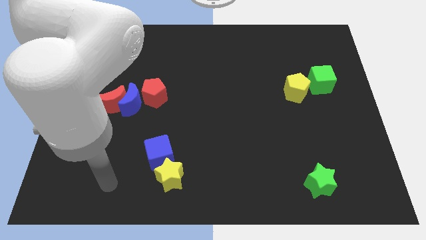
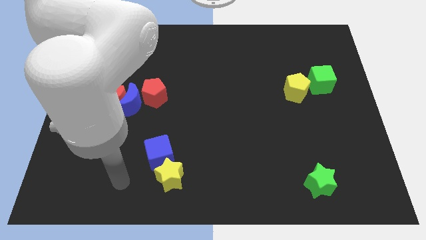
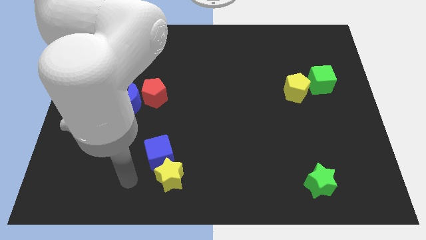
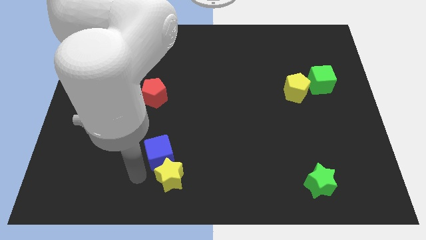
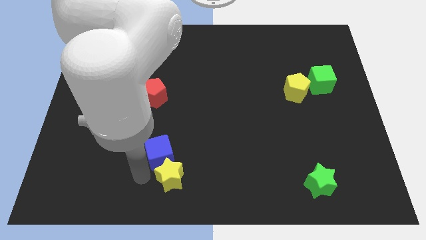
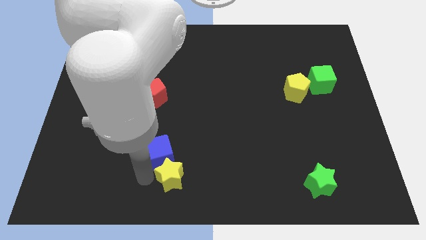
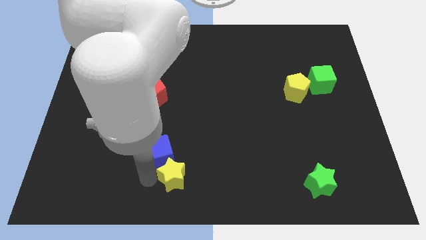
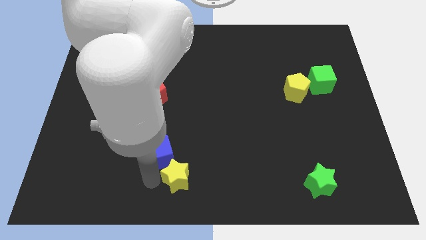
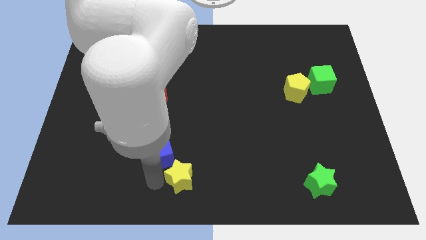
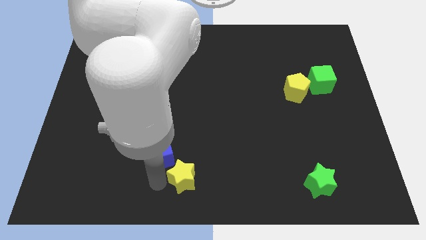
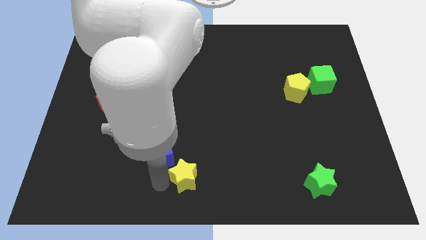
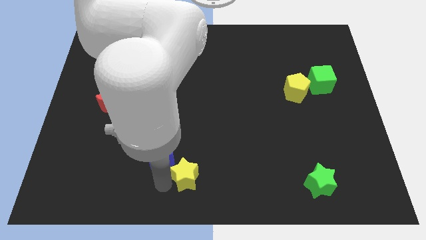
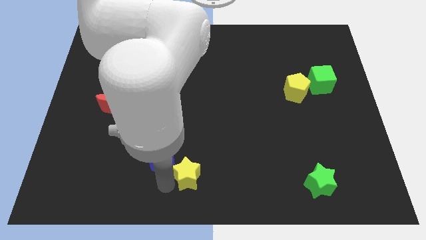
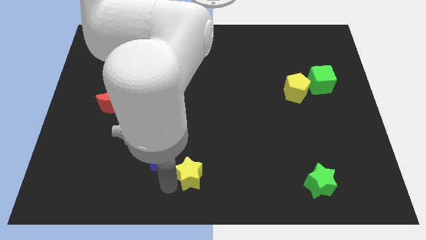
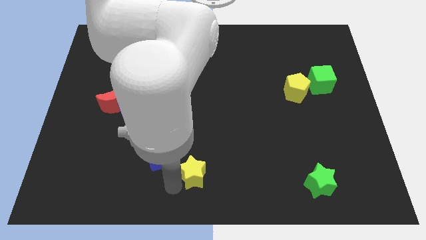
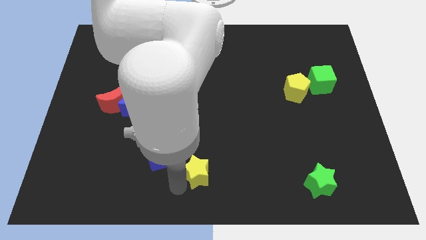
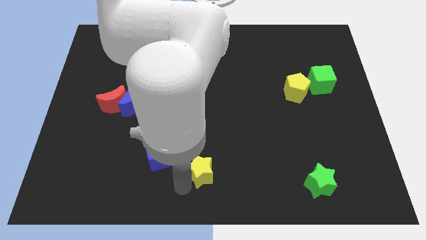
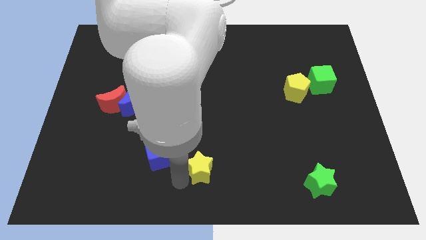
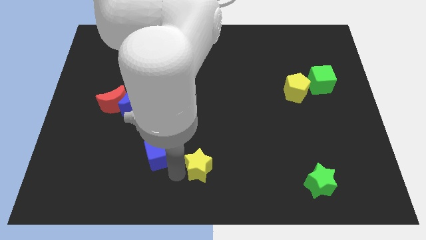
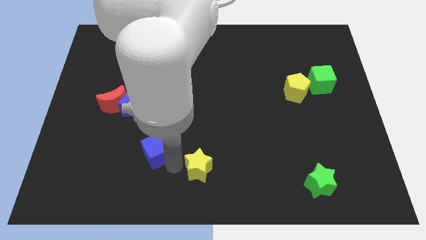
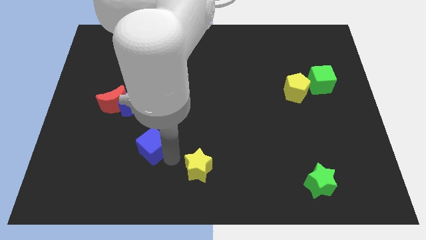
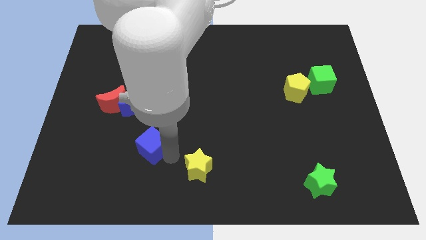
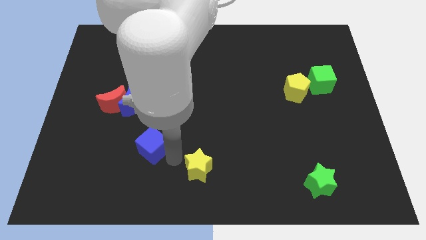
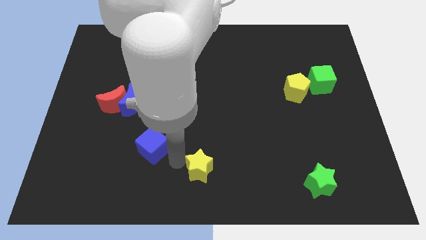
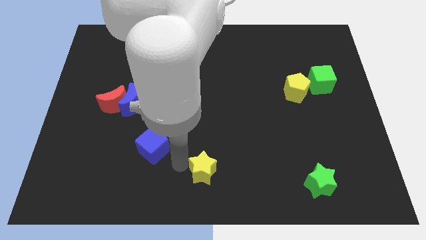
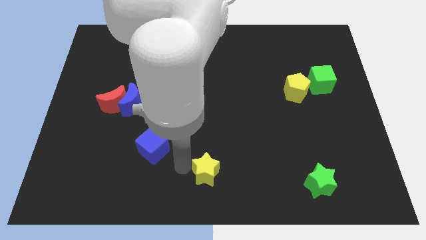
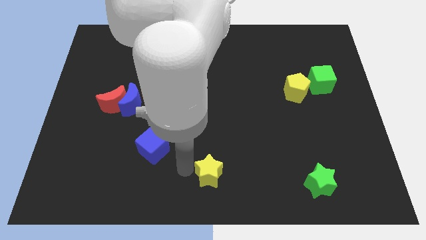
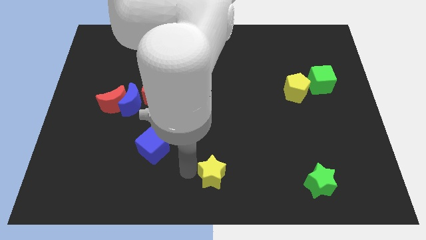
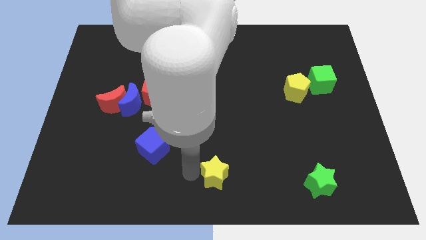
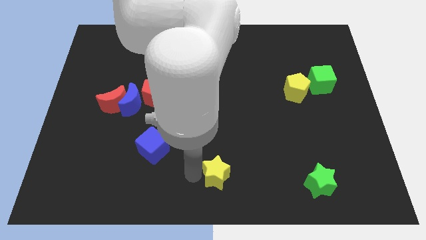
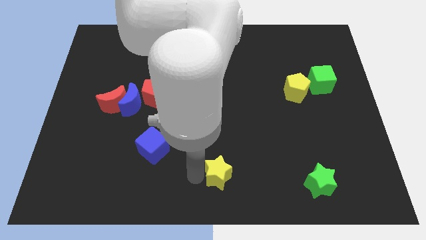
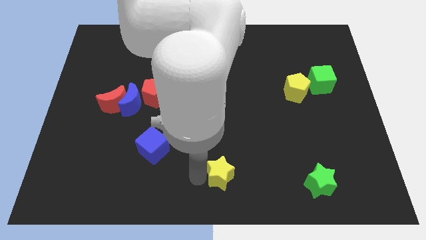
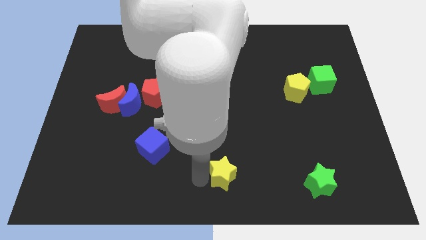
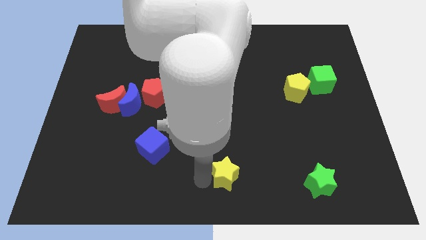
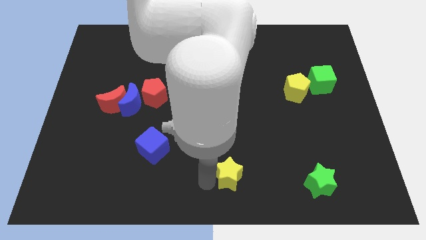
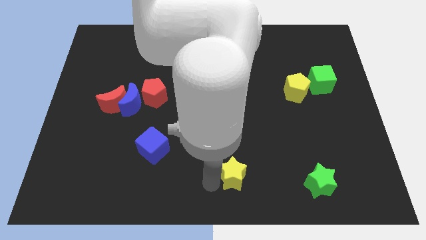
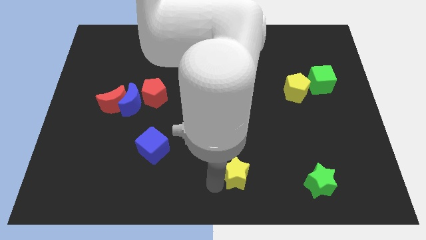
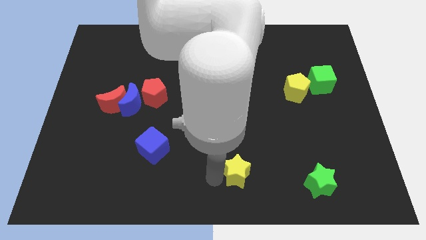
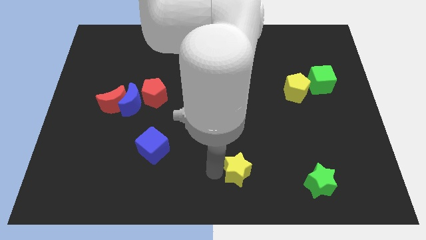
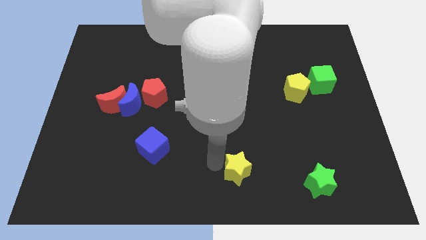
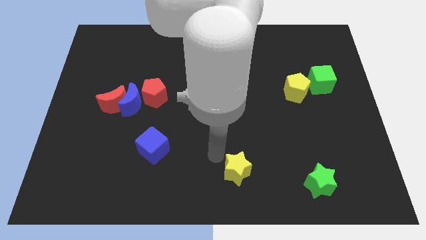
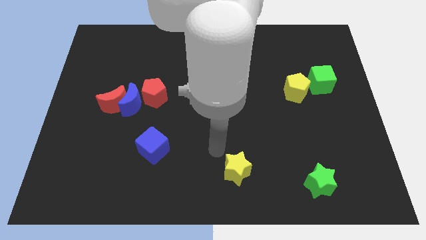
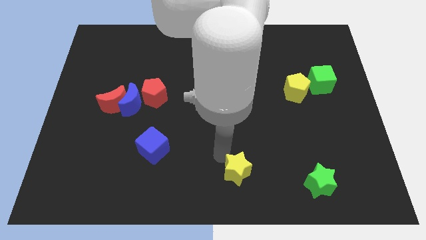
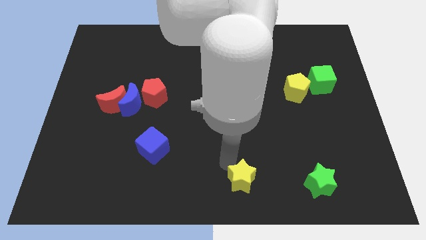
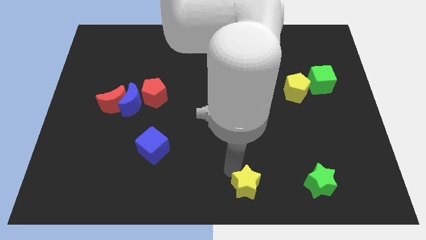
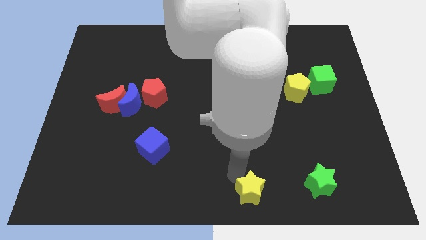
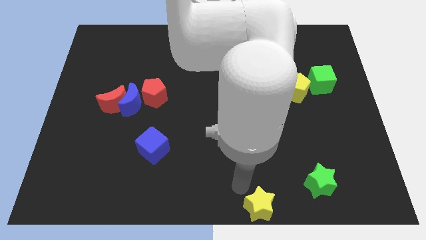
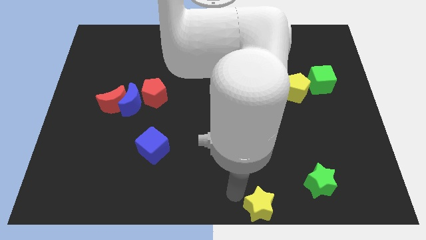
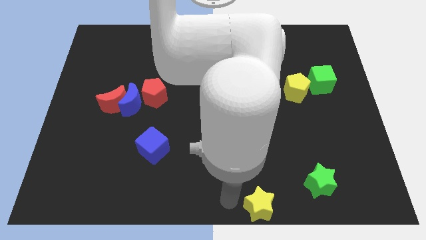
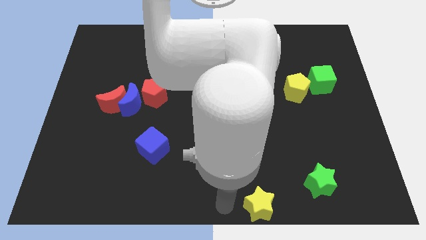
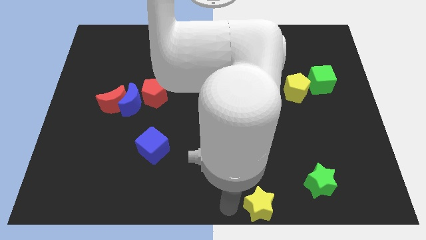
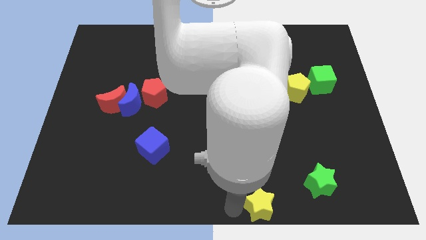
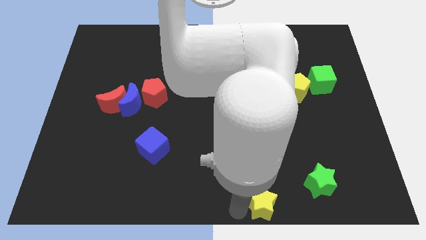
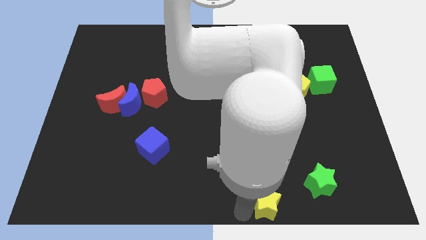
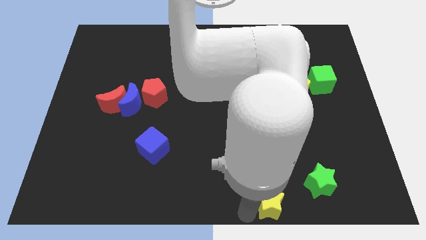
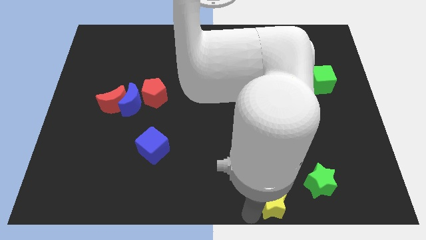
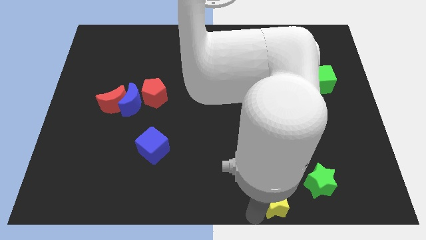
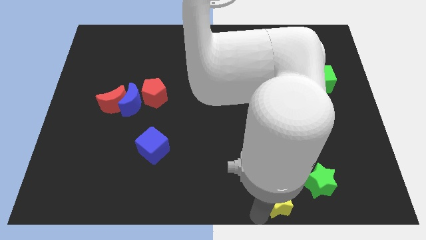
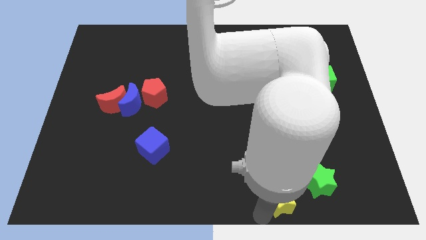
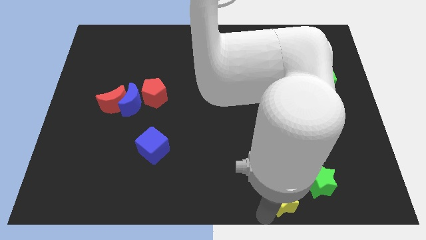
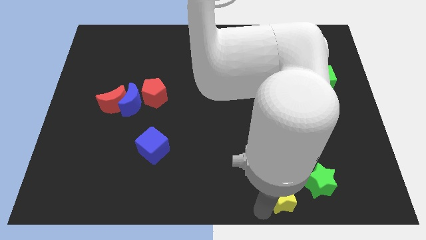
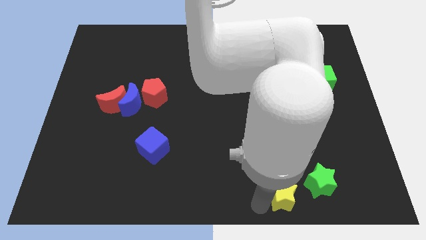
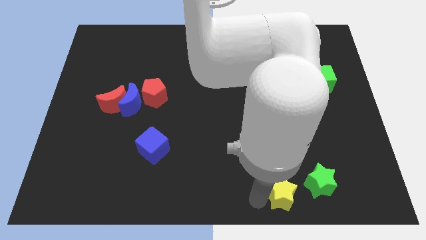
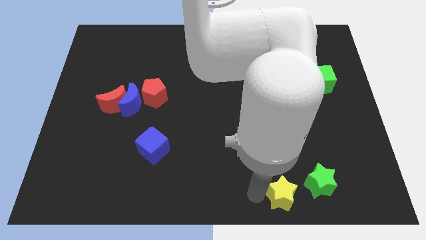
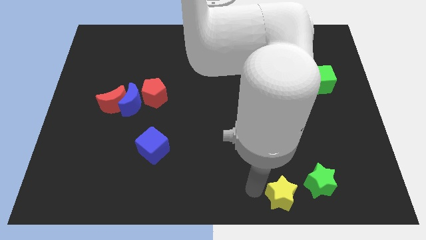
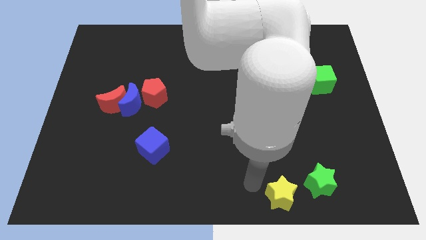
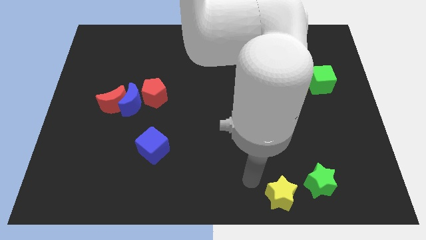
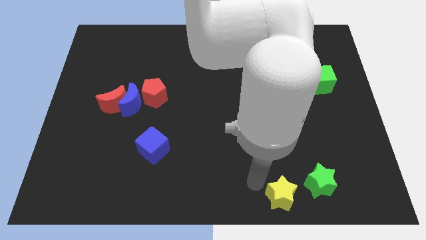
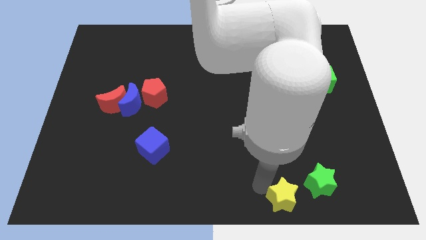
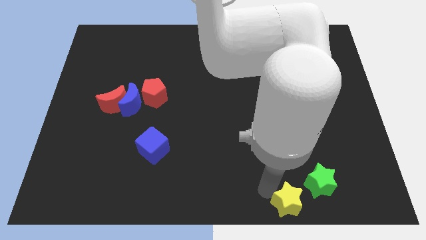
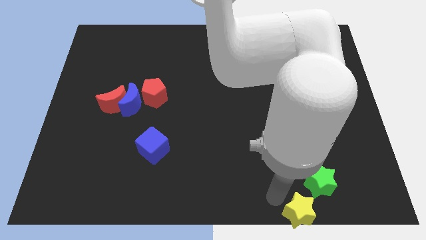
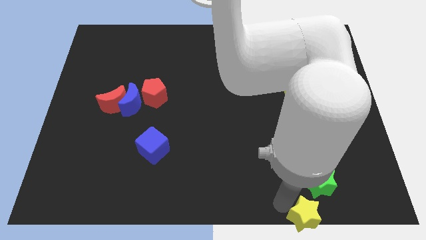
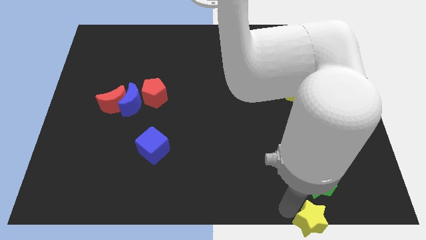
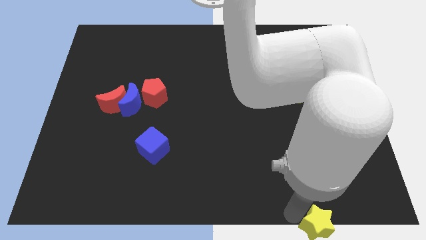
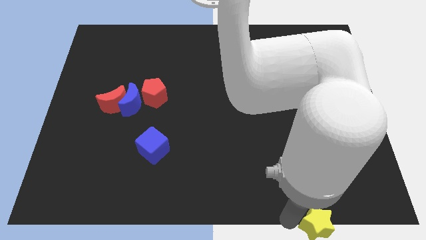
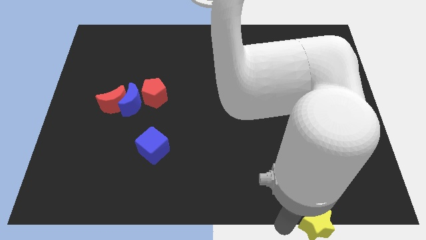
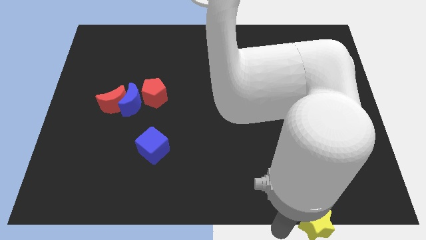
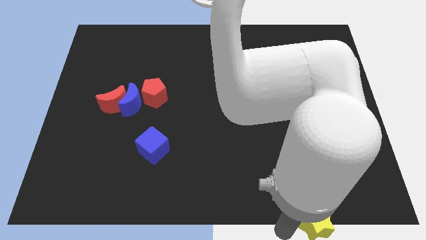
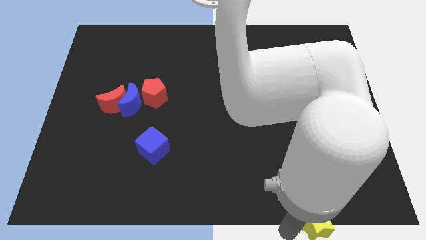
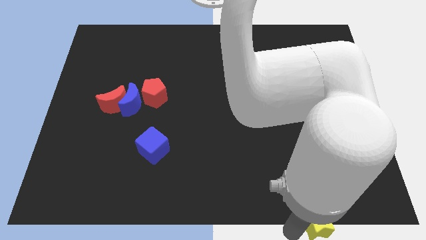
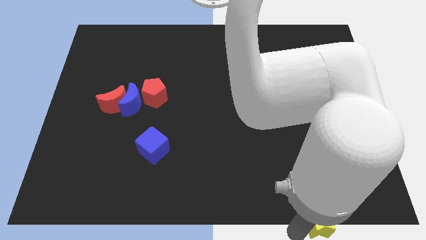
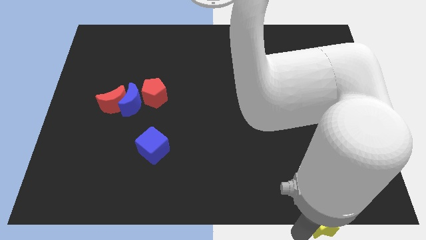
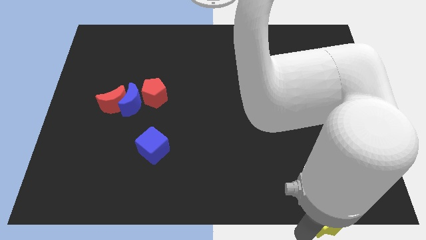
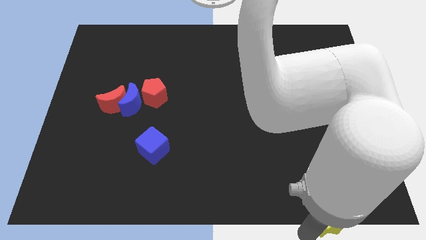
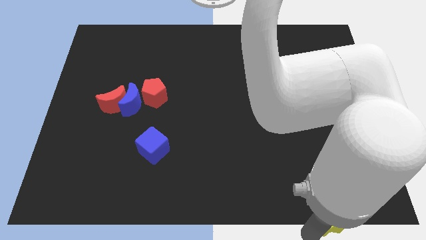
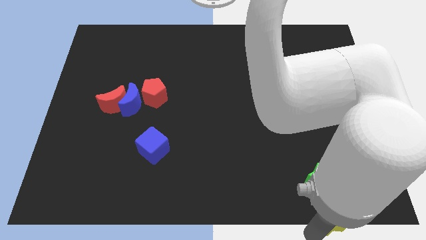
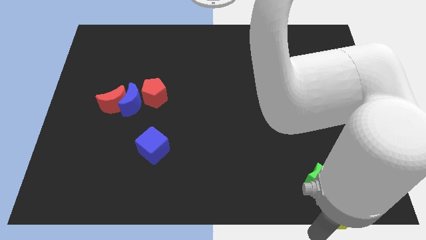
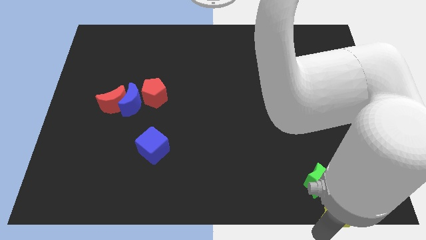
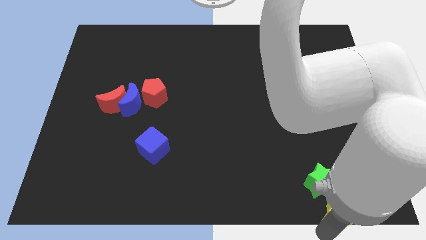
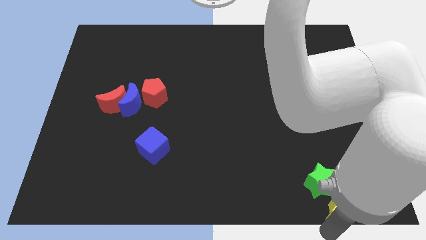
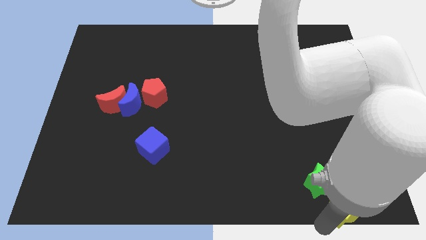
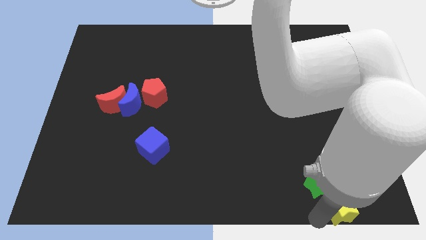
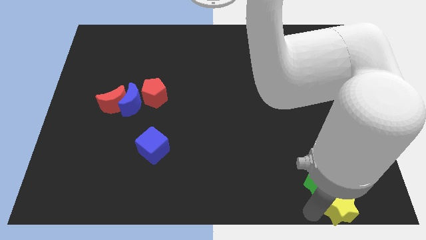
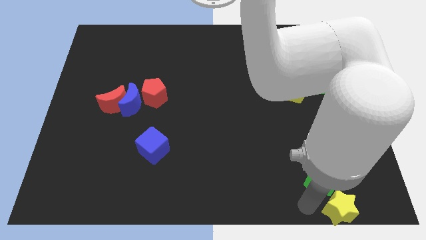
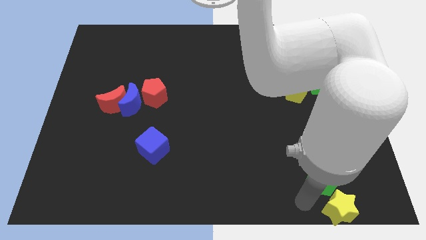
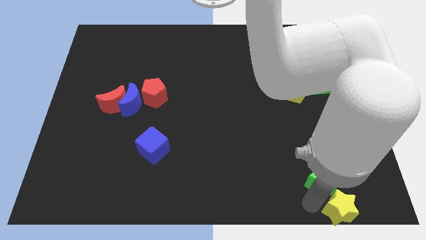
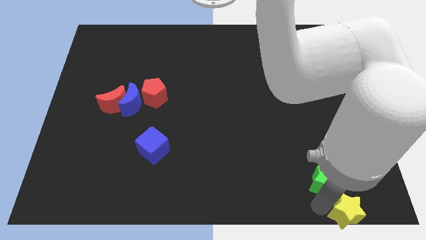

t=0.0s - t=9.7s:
move the yellow star to the bottom right of the board
